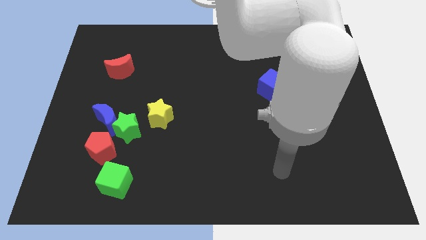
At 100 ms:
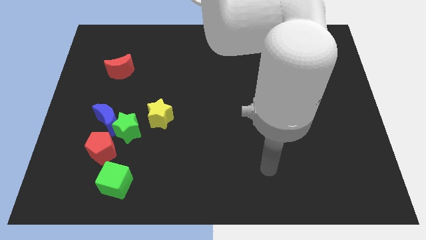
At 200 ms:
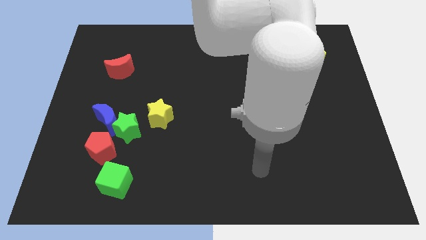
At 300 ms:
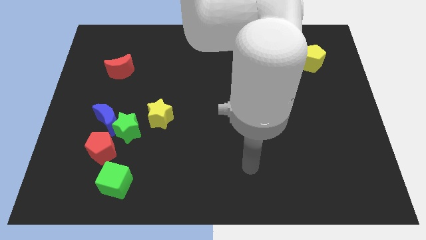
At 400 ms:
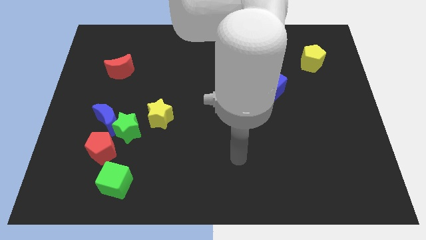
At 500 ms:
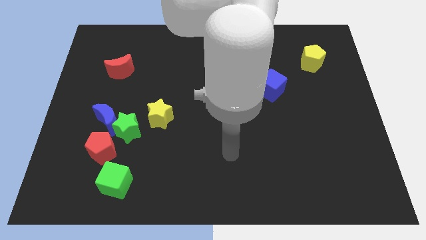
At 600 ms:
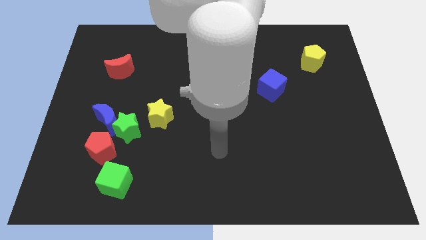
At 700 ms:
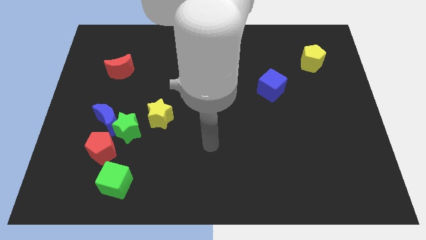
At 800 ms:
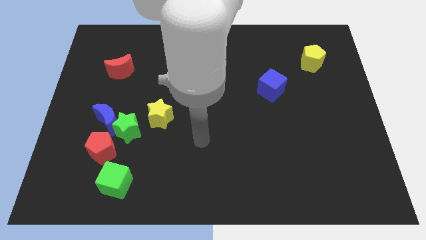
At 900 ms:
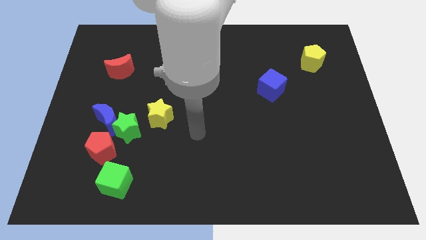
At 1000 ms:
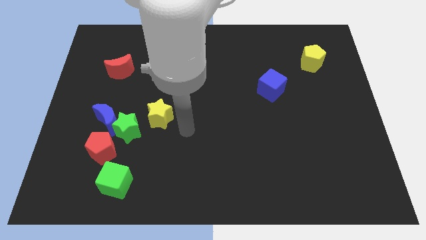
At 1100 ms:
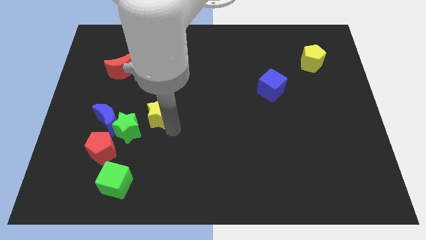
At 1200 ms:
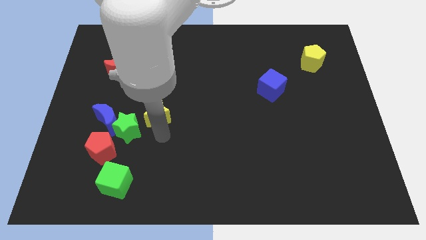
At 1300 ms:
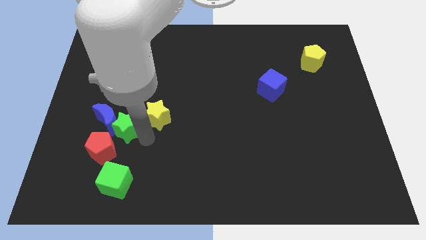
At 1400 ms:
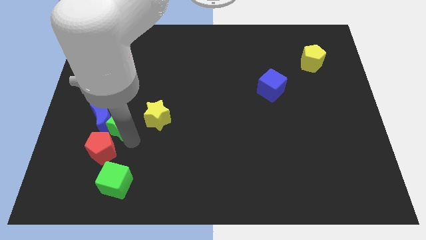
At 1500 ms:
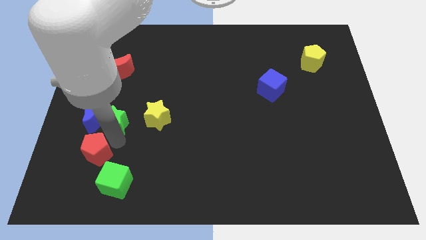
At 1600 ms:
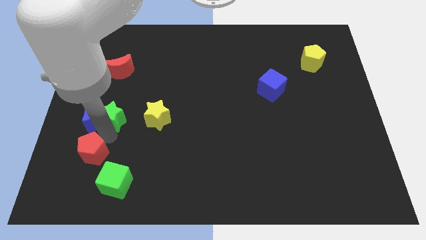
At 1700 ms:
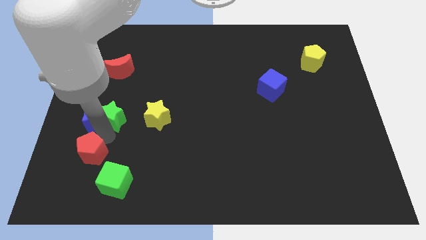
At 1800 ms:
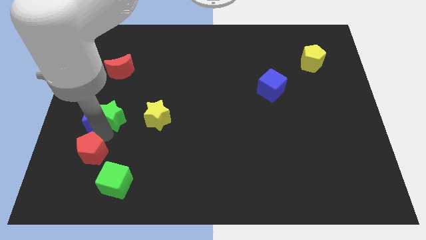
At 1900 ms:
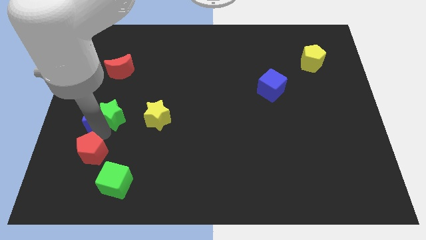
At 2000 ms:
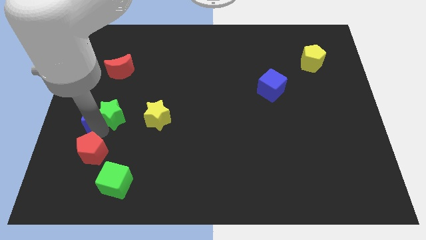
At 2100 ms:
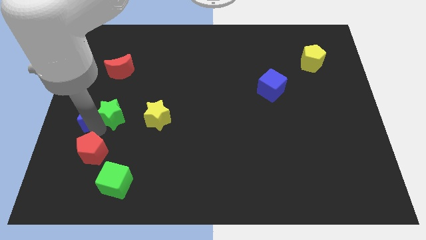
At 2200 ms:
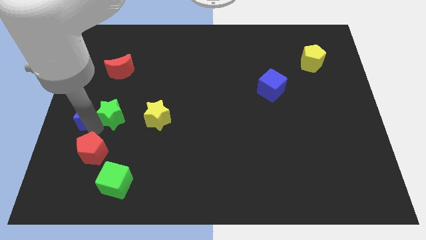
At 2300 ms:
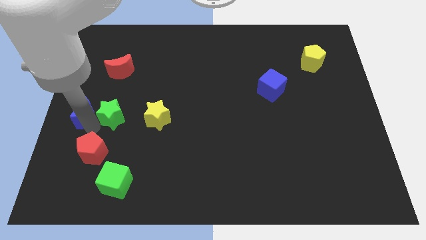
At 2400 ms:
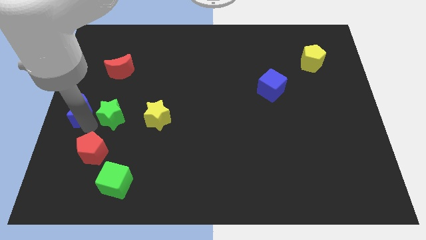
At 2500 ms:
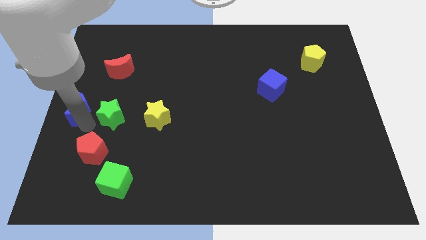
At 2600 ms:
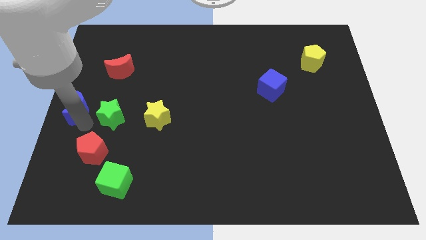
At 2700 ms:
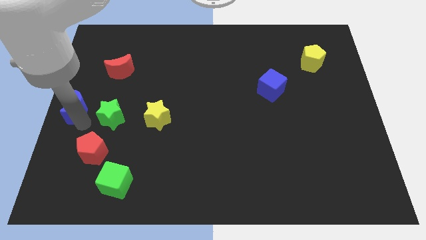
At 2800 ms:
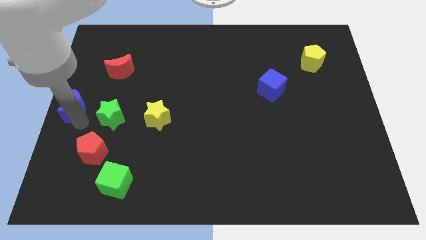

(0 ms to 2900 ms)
pull the blue moon apart from the green star and red pentagon

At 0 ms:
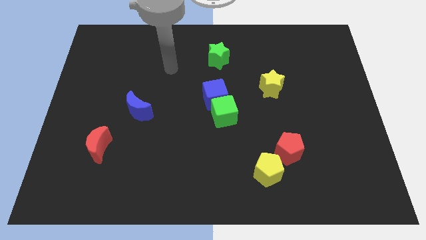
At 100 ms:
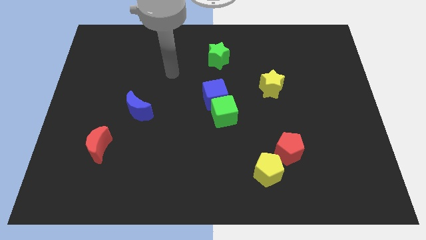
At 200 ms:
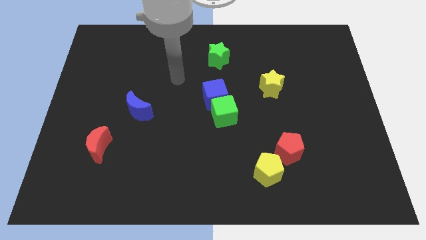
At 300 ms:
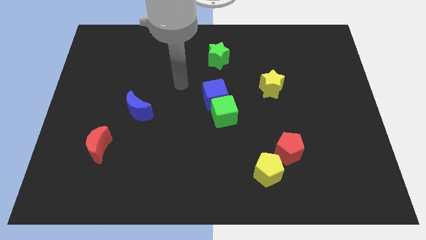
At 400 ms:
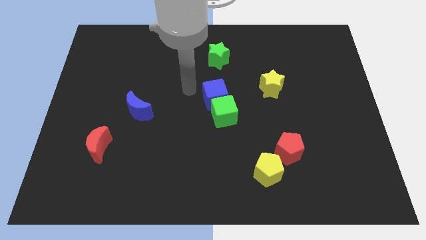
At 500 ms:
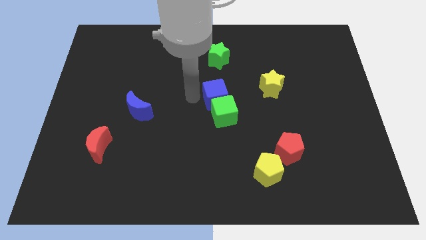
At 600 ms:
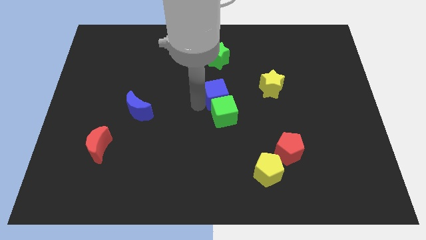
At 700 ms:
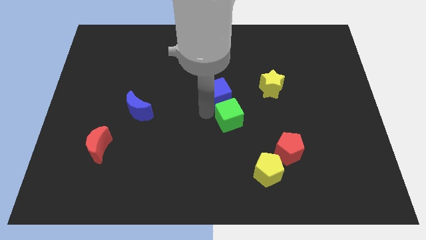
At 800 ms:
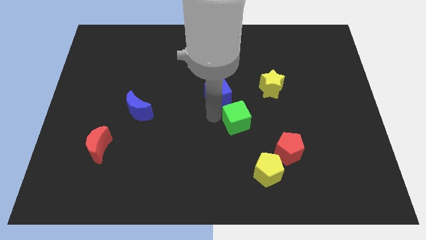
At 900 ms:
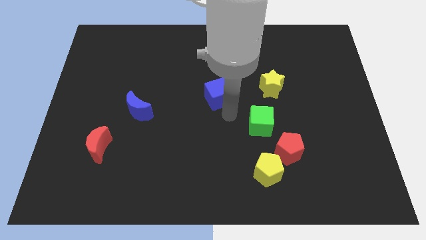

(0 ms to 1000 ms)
move the blue cube away from the green cube

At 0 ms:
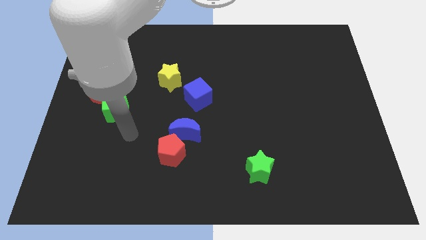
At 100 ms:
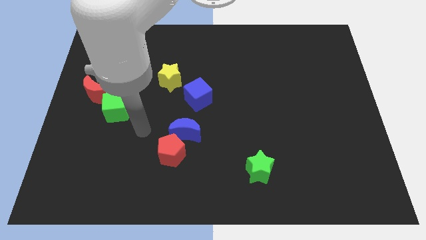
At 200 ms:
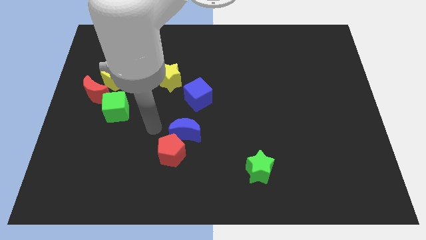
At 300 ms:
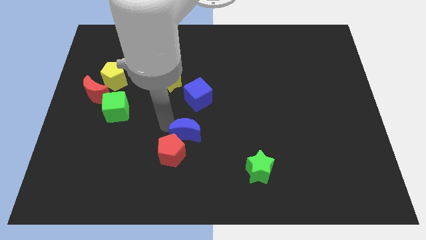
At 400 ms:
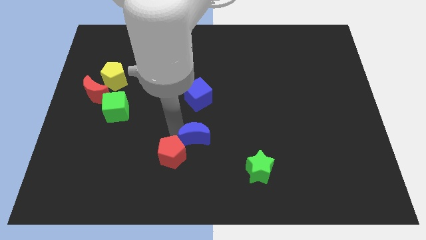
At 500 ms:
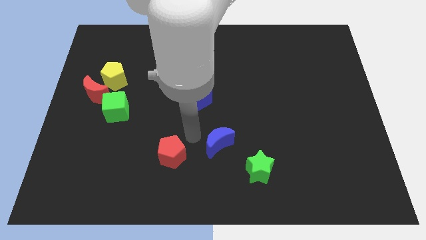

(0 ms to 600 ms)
move the red pentagon away from the blue moon

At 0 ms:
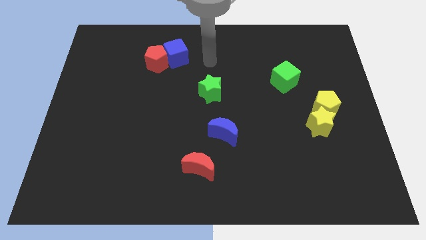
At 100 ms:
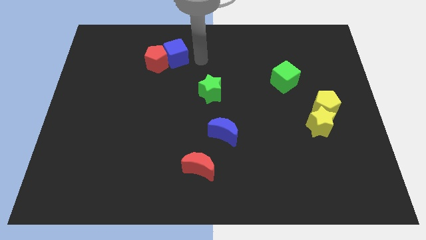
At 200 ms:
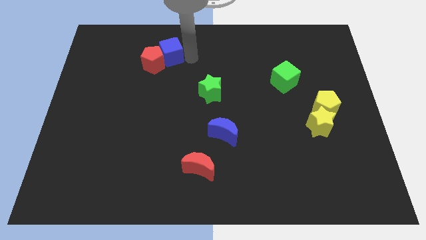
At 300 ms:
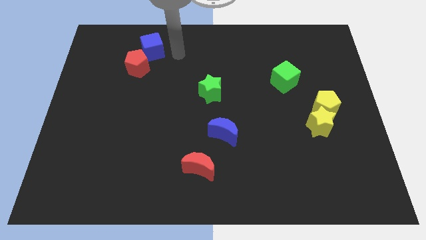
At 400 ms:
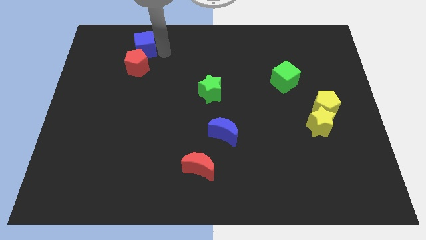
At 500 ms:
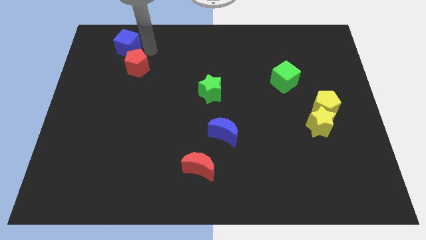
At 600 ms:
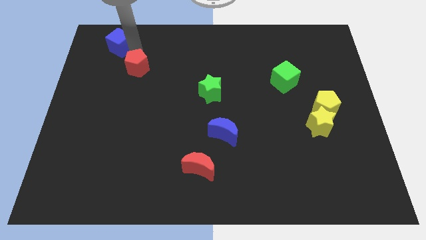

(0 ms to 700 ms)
pull the red pentagon apart from the blue cube

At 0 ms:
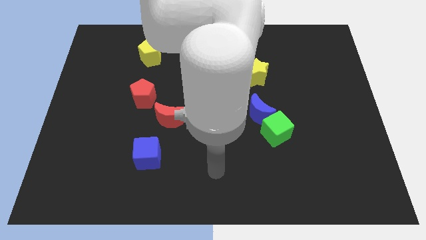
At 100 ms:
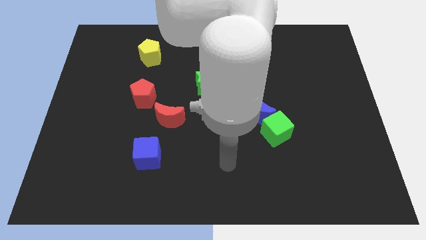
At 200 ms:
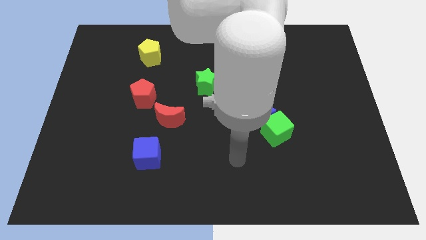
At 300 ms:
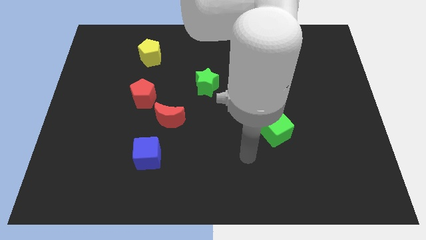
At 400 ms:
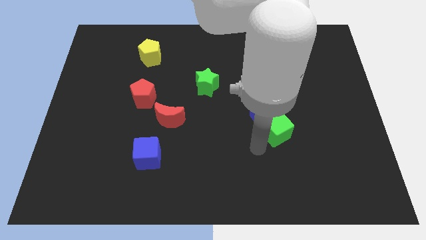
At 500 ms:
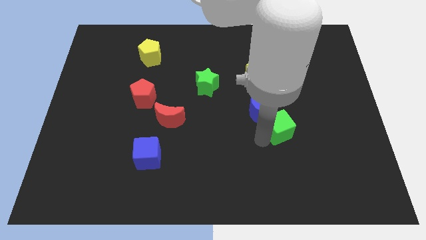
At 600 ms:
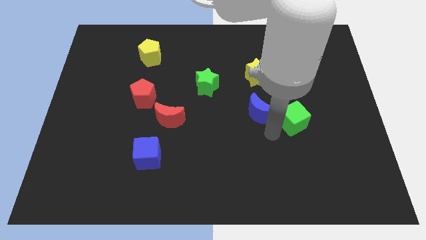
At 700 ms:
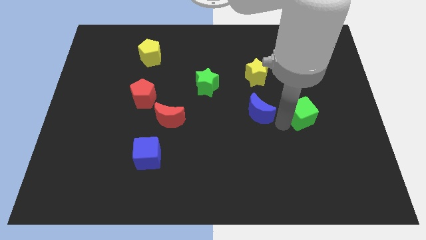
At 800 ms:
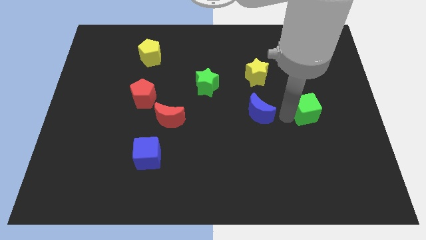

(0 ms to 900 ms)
separate the blue moon from the green cube

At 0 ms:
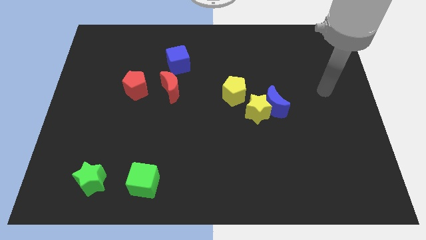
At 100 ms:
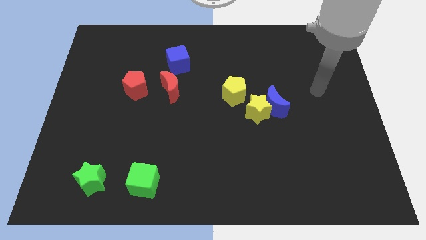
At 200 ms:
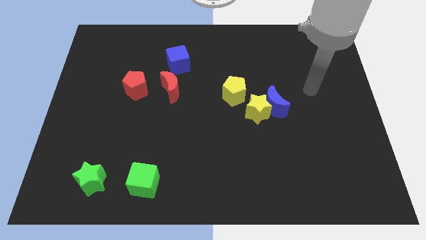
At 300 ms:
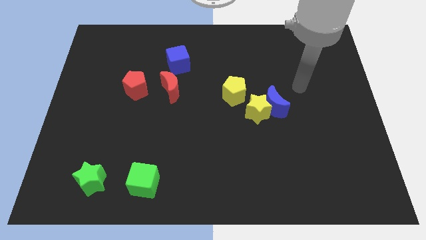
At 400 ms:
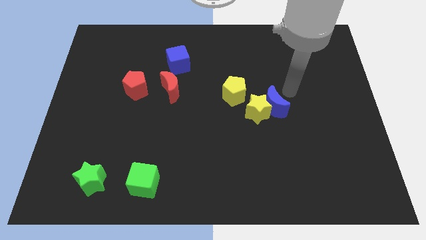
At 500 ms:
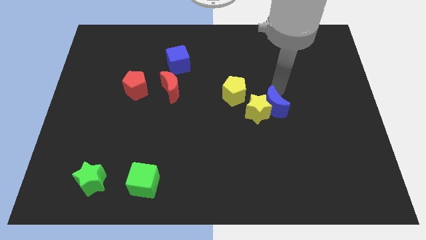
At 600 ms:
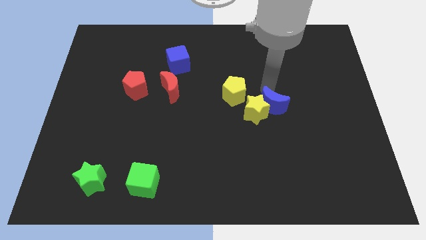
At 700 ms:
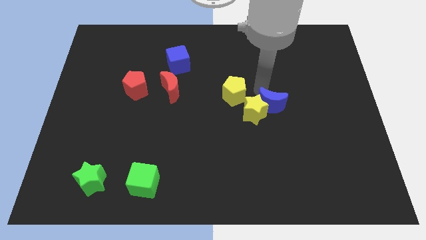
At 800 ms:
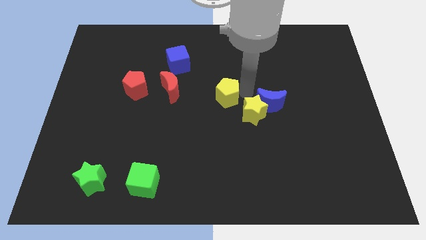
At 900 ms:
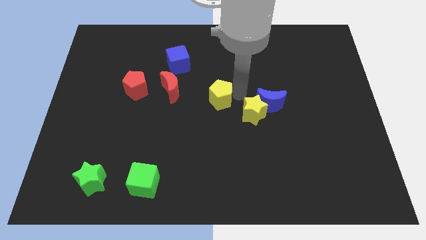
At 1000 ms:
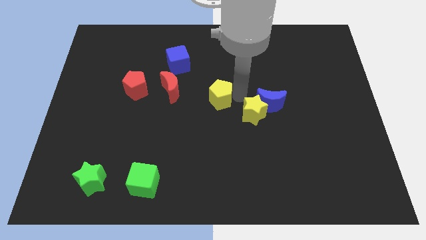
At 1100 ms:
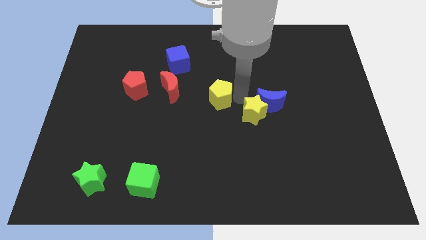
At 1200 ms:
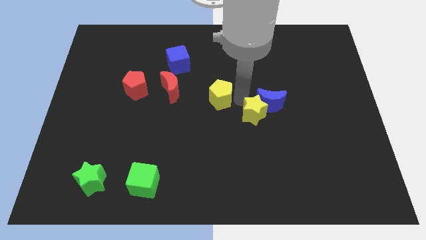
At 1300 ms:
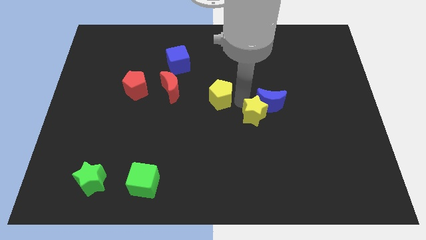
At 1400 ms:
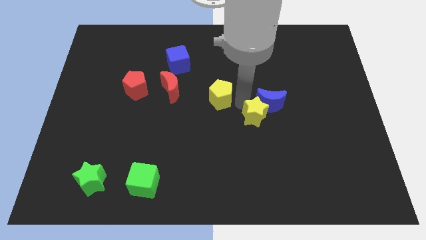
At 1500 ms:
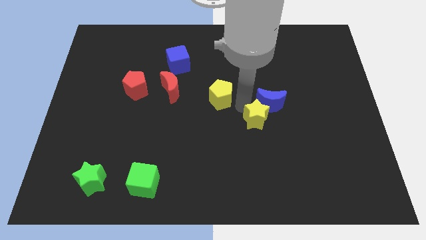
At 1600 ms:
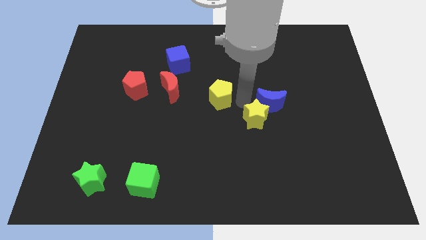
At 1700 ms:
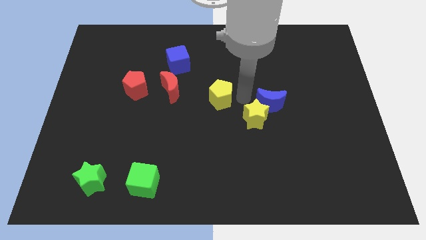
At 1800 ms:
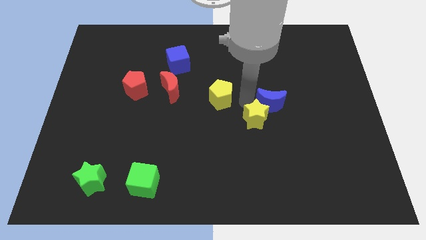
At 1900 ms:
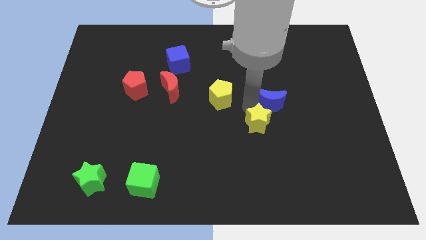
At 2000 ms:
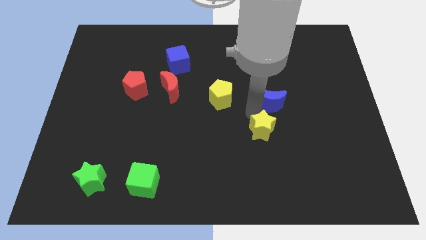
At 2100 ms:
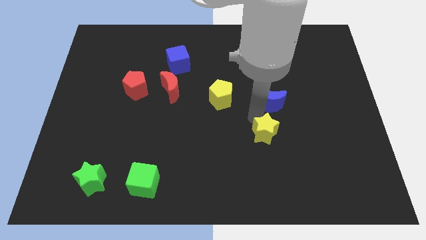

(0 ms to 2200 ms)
move the yellow star away from the blue moon and yellow pentagon

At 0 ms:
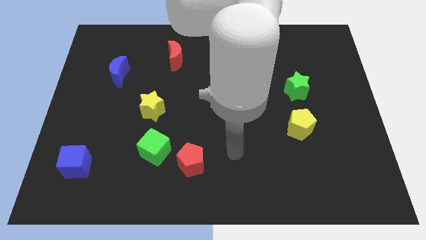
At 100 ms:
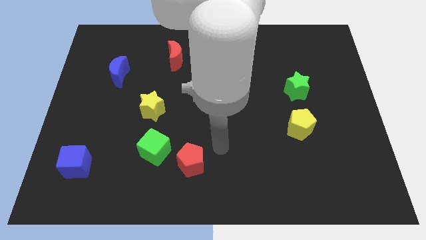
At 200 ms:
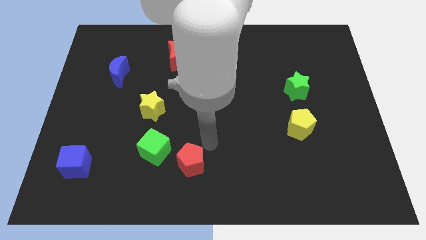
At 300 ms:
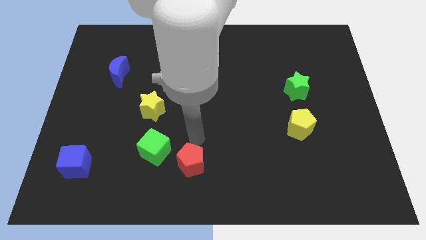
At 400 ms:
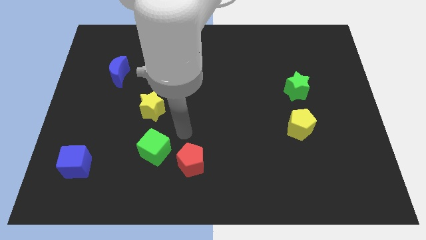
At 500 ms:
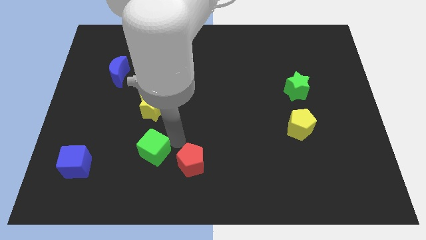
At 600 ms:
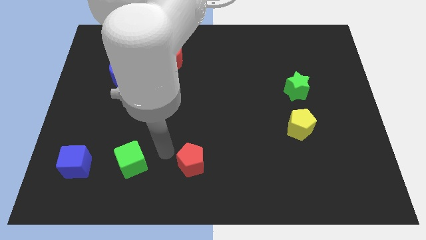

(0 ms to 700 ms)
move the red pentagon away from the green cube

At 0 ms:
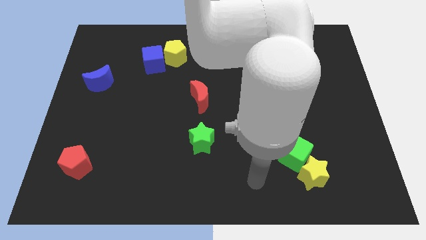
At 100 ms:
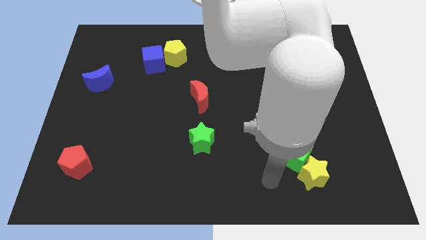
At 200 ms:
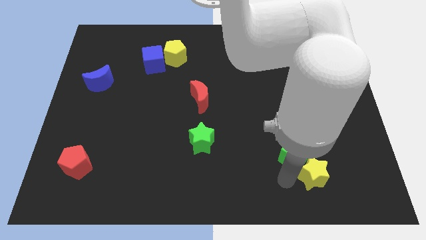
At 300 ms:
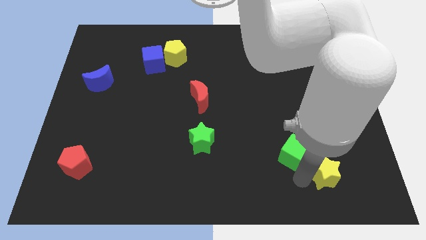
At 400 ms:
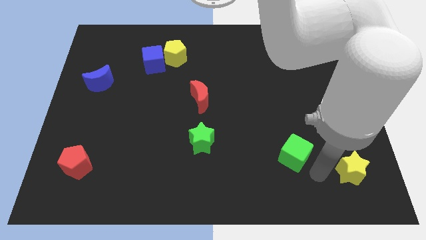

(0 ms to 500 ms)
move the green cube away from the yellow star

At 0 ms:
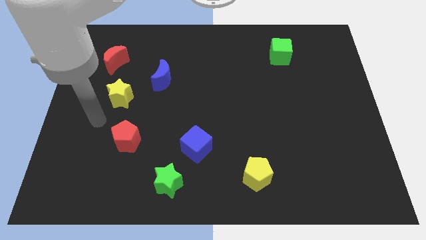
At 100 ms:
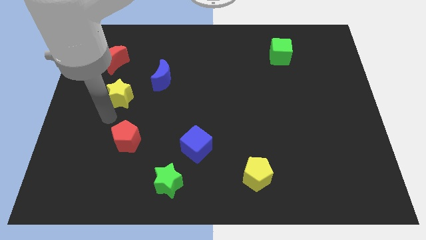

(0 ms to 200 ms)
separate the blue cube from the green star
